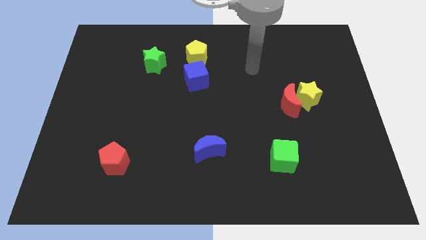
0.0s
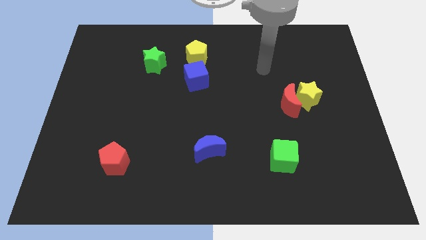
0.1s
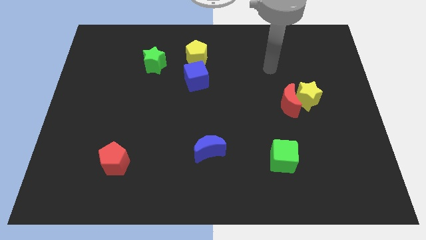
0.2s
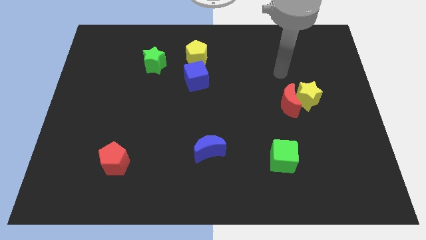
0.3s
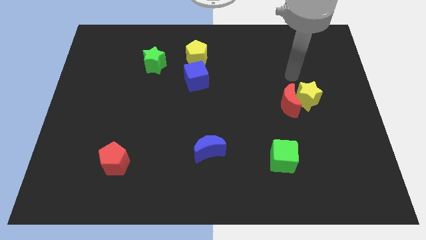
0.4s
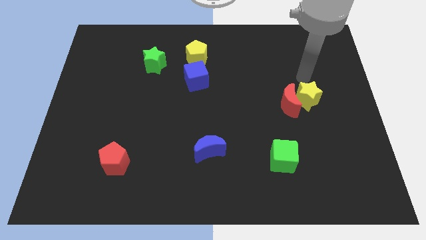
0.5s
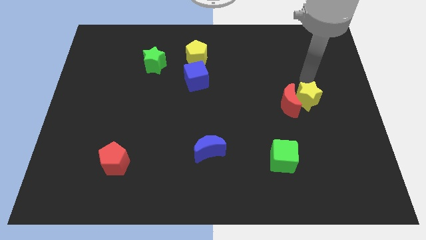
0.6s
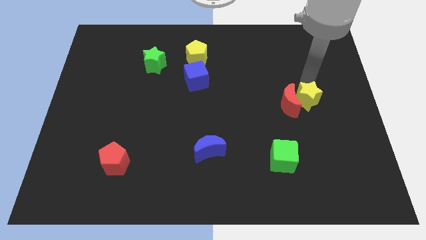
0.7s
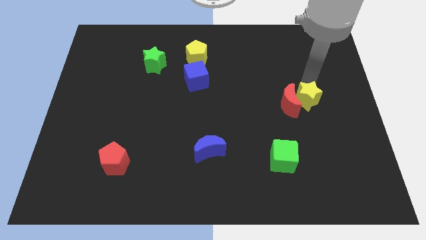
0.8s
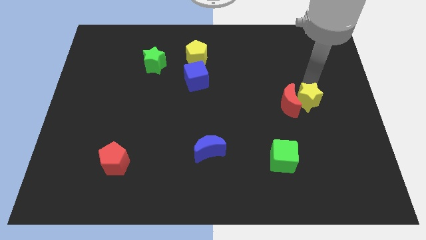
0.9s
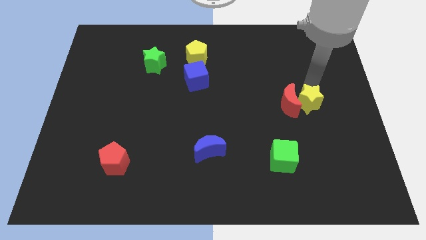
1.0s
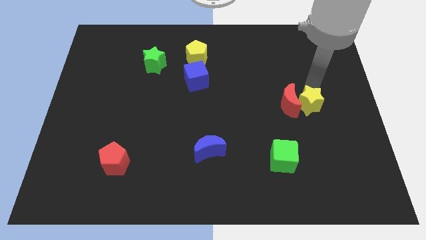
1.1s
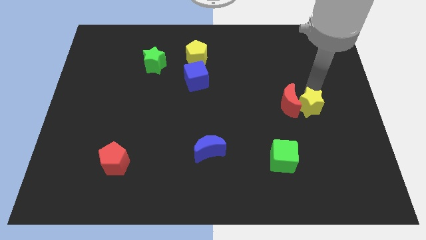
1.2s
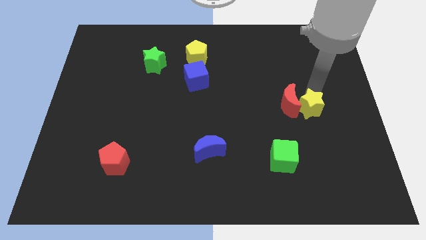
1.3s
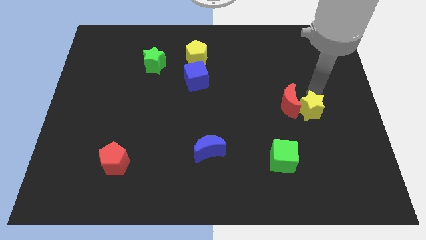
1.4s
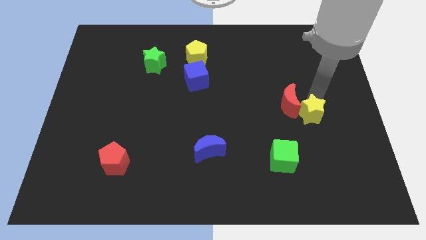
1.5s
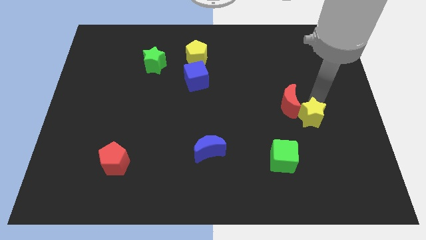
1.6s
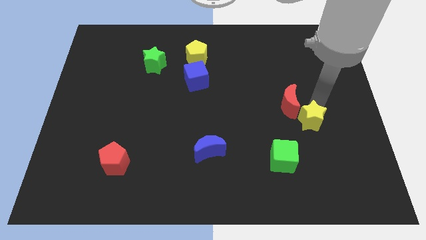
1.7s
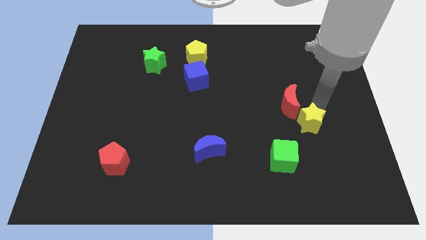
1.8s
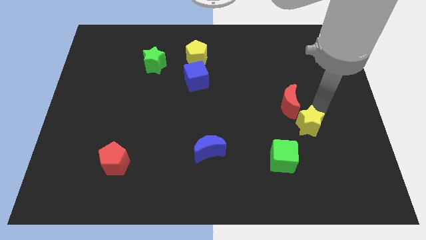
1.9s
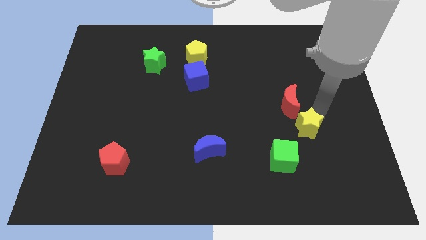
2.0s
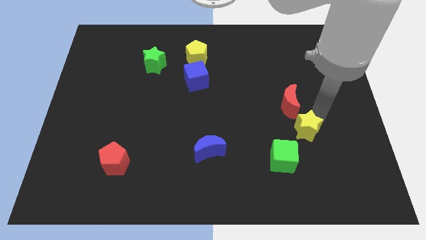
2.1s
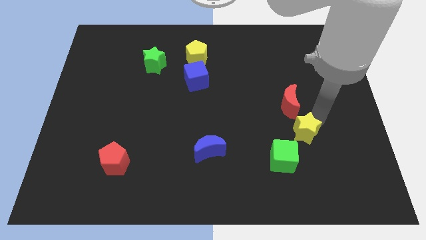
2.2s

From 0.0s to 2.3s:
move the yellow star down and to the left diagonally a bit

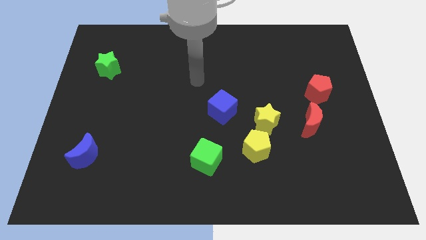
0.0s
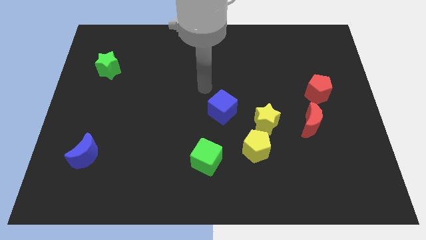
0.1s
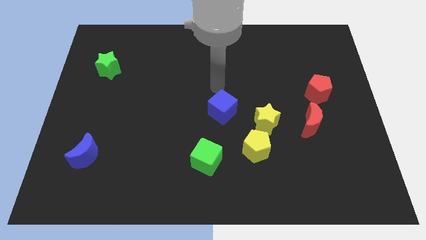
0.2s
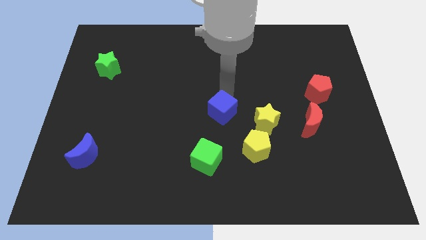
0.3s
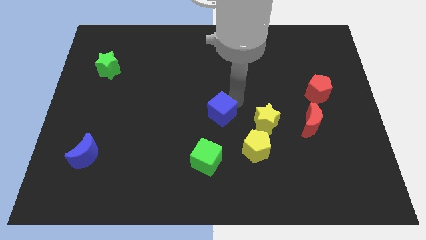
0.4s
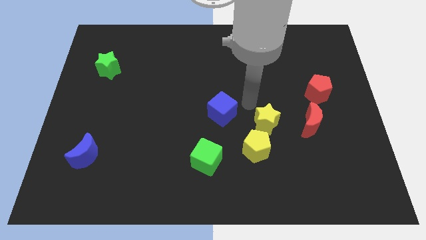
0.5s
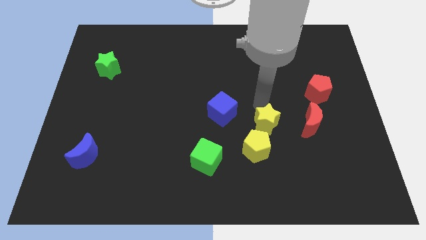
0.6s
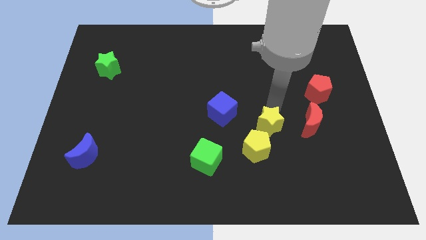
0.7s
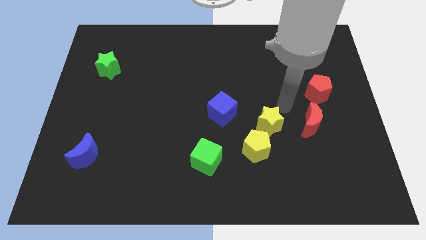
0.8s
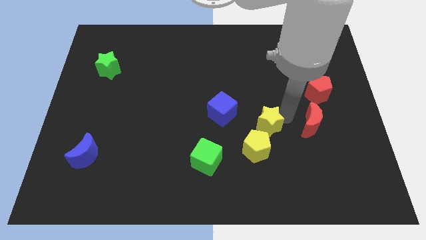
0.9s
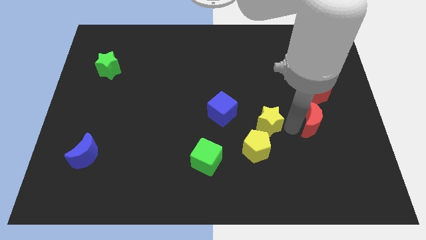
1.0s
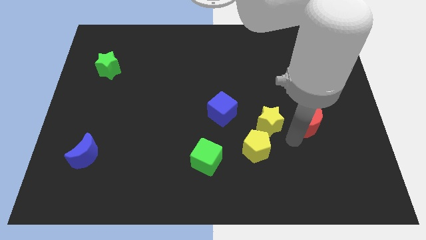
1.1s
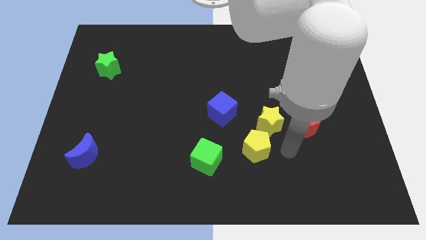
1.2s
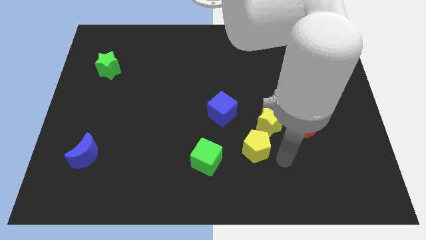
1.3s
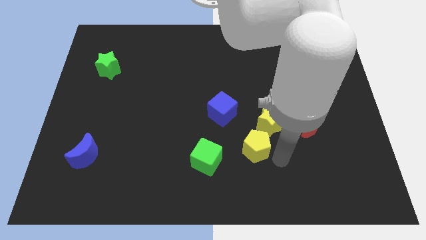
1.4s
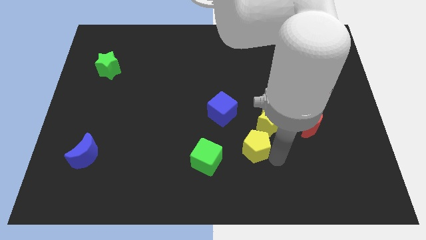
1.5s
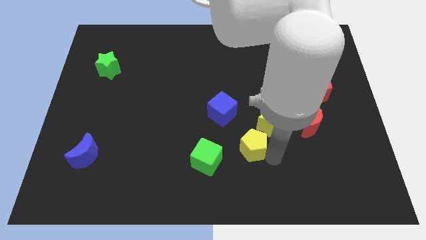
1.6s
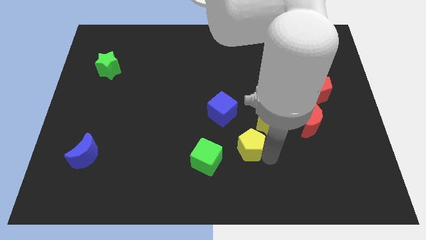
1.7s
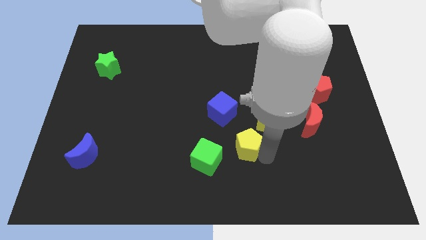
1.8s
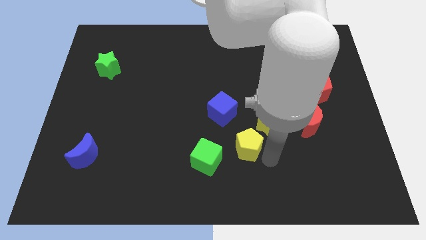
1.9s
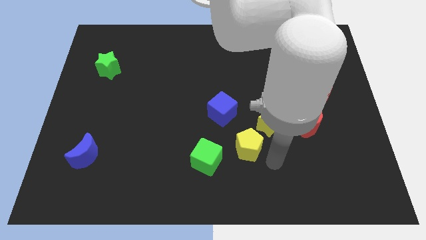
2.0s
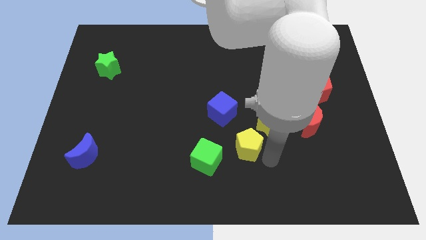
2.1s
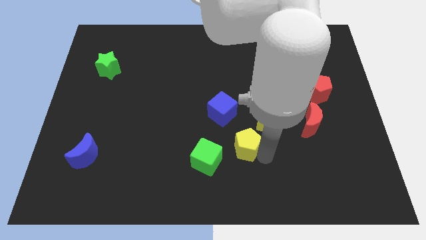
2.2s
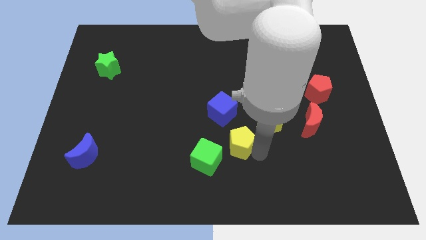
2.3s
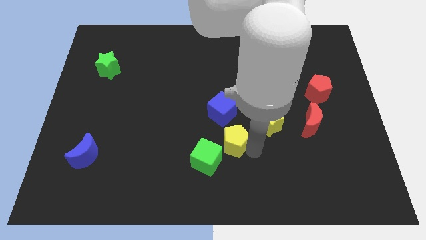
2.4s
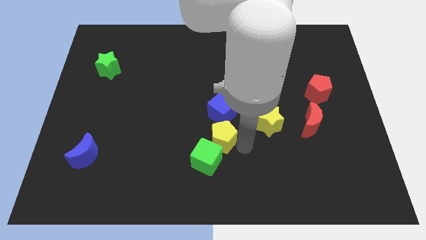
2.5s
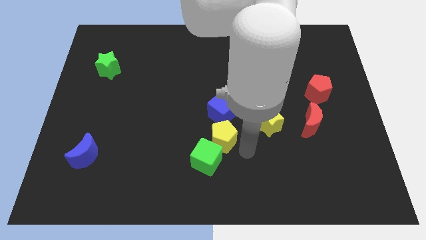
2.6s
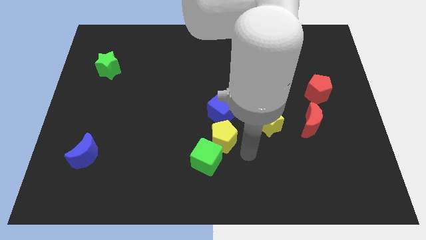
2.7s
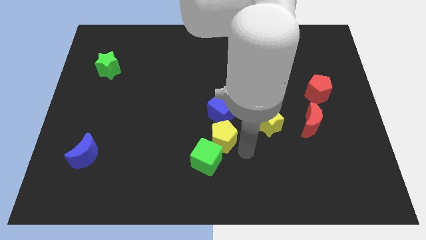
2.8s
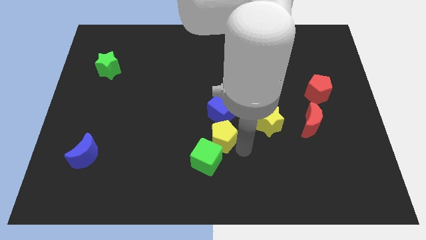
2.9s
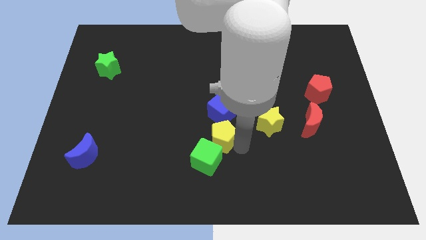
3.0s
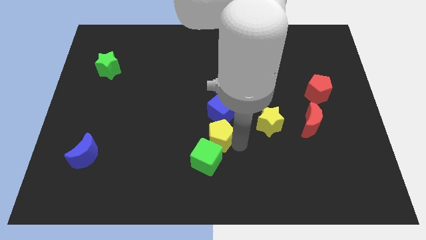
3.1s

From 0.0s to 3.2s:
slightly move the yellow pentagon diagonally upwards and to the left

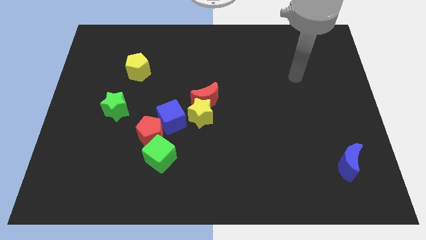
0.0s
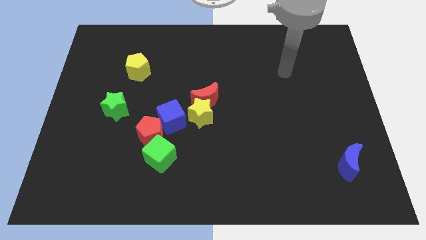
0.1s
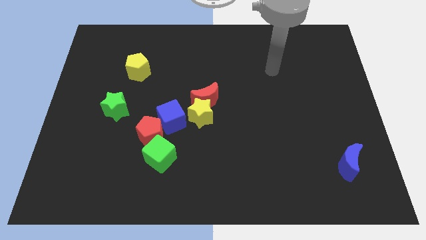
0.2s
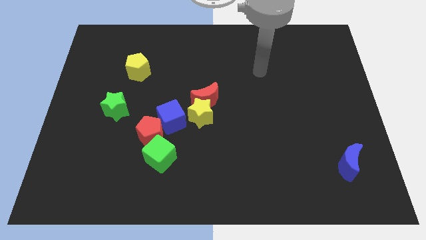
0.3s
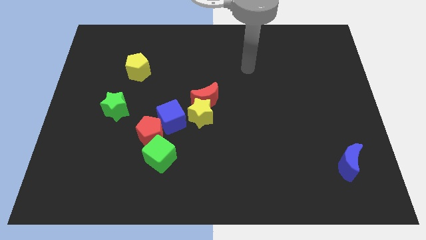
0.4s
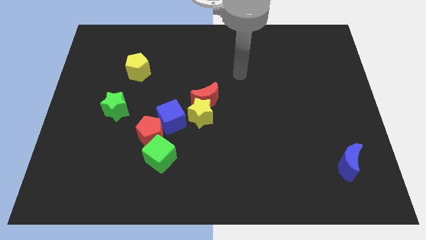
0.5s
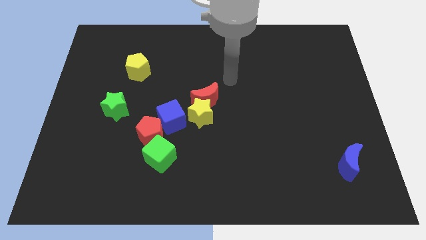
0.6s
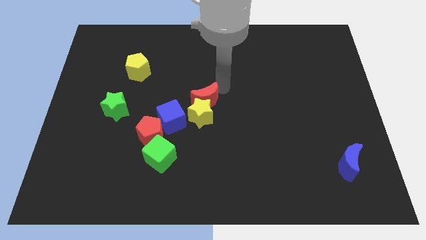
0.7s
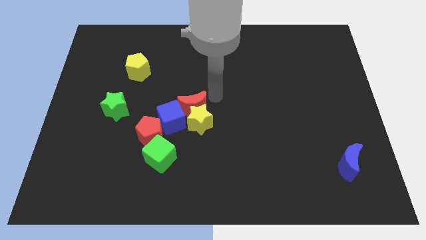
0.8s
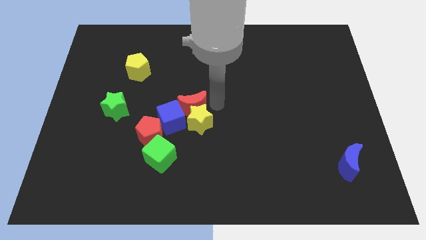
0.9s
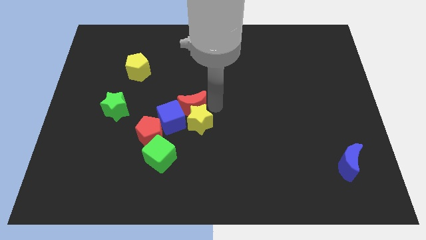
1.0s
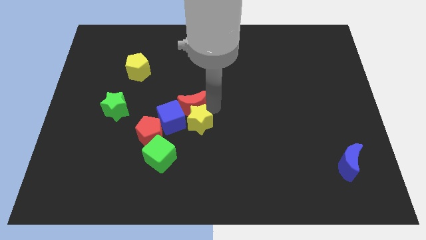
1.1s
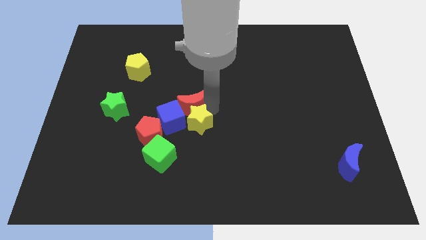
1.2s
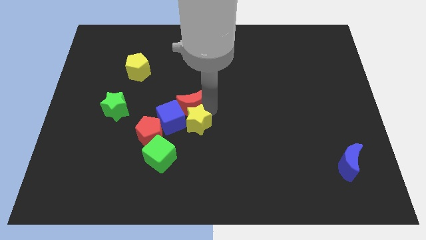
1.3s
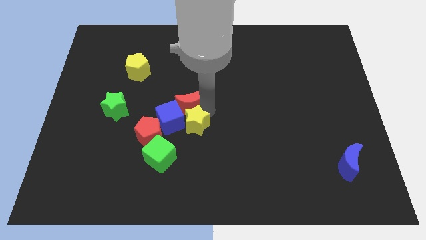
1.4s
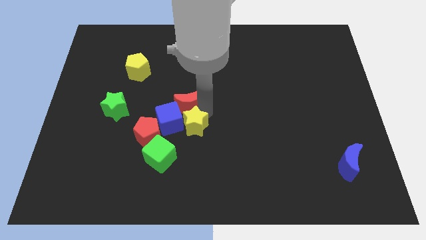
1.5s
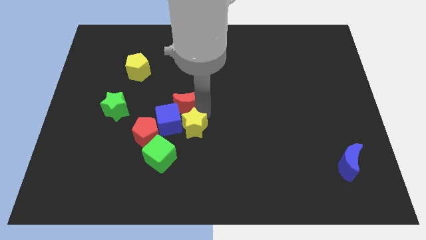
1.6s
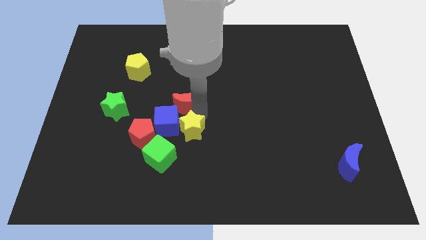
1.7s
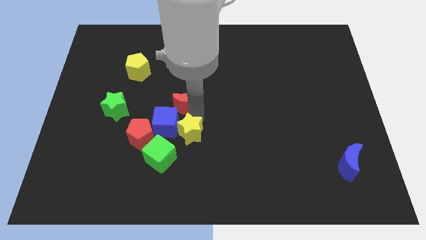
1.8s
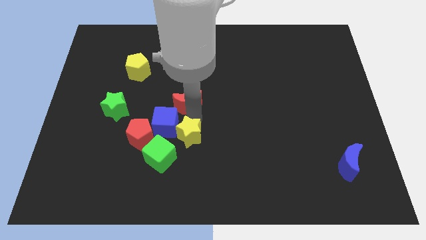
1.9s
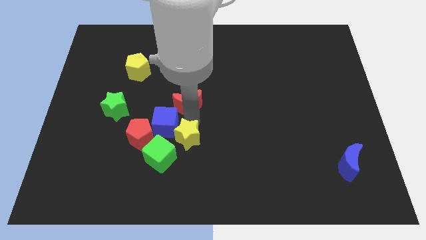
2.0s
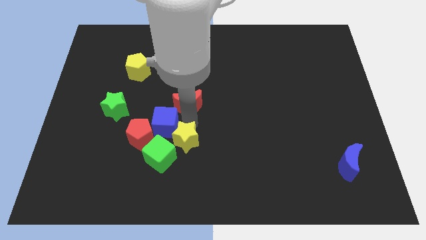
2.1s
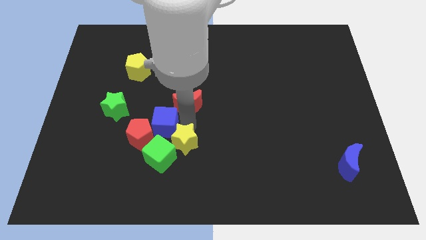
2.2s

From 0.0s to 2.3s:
move the yellow star slightly down and left diagonally
